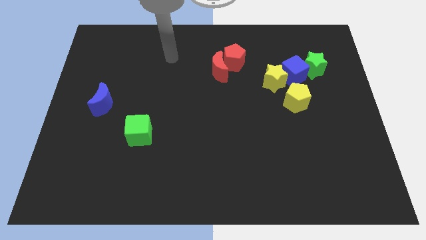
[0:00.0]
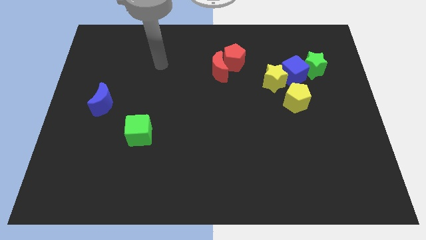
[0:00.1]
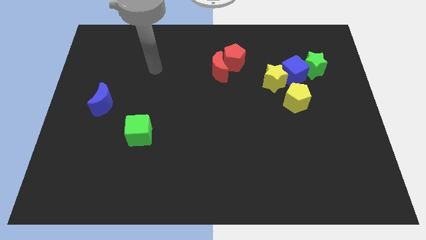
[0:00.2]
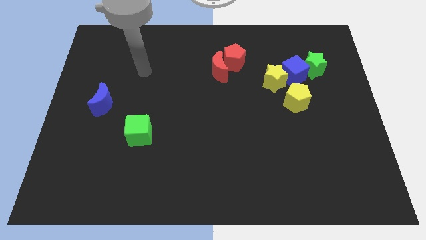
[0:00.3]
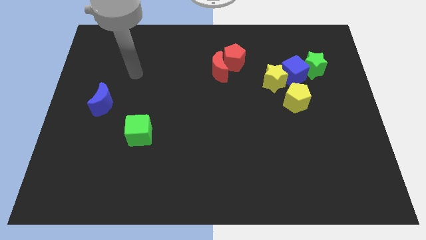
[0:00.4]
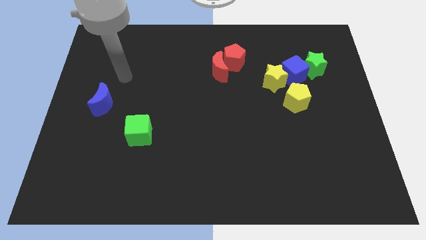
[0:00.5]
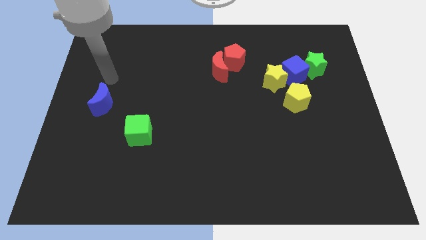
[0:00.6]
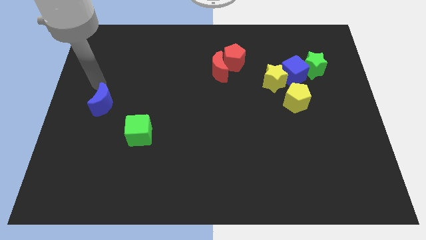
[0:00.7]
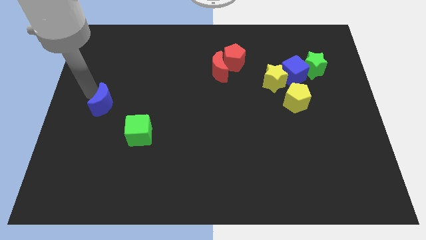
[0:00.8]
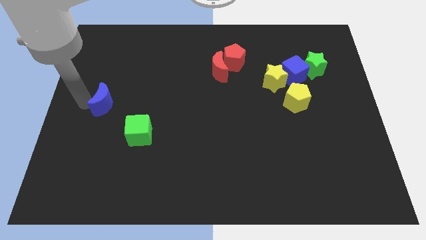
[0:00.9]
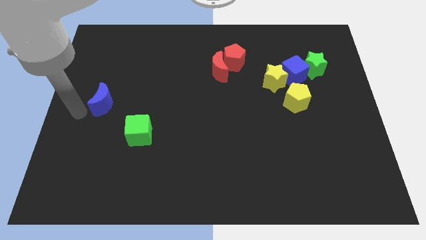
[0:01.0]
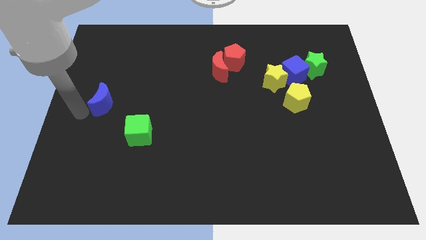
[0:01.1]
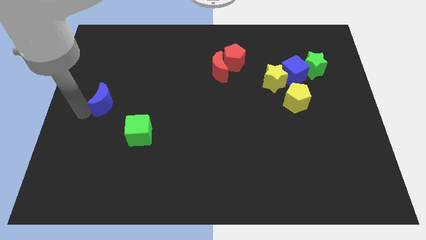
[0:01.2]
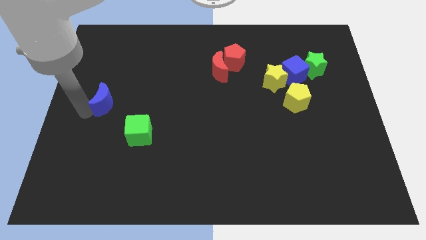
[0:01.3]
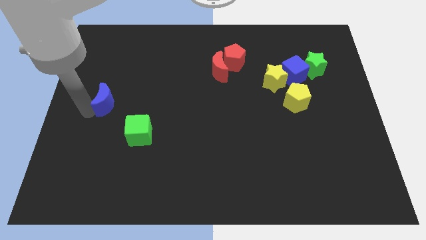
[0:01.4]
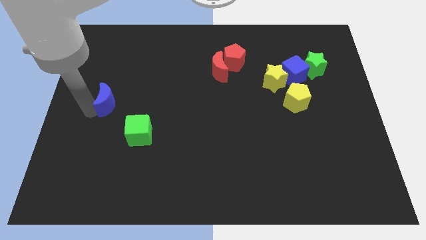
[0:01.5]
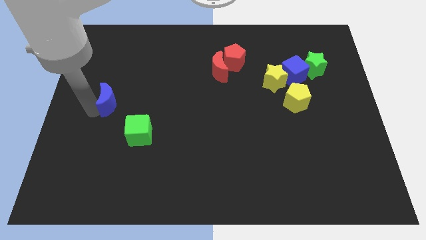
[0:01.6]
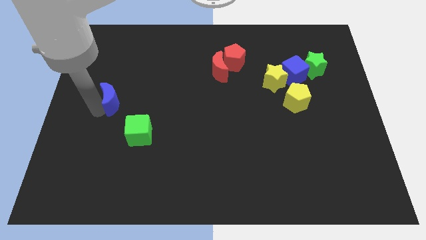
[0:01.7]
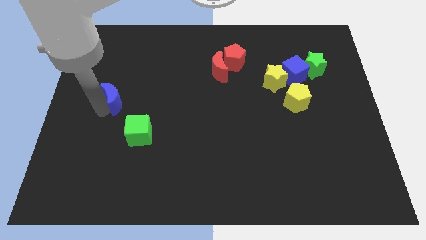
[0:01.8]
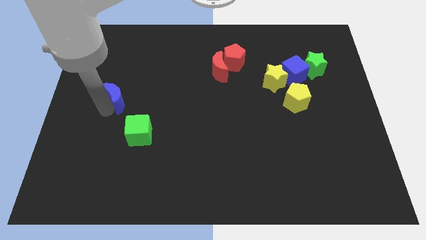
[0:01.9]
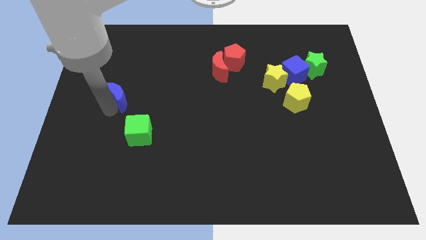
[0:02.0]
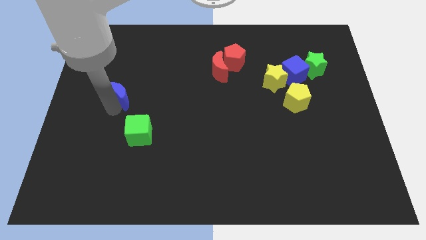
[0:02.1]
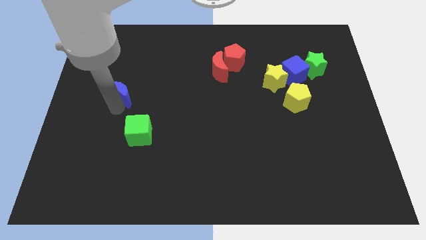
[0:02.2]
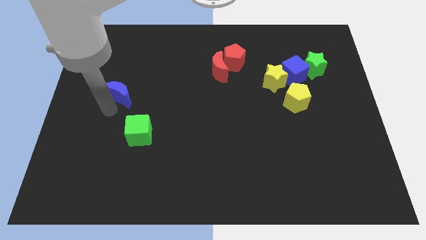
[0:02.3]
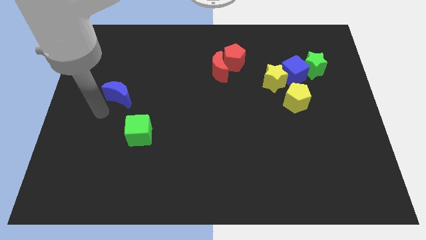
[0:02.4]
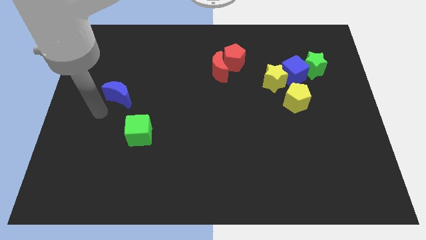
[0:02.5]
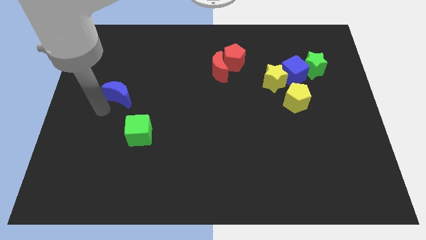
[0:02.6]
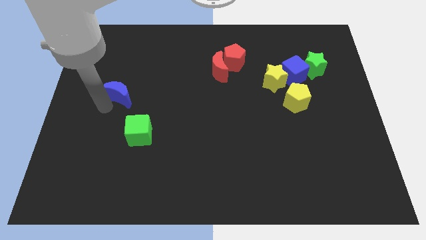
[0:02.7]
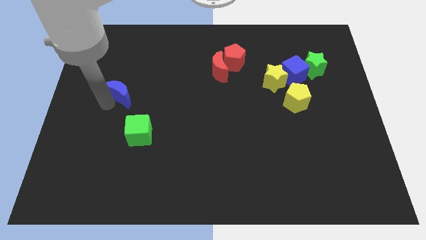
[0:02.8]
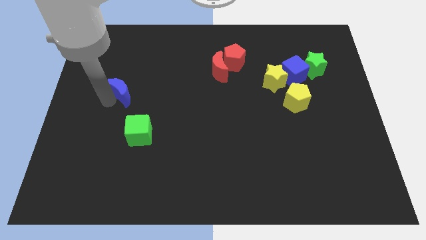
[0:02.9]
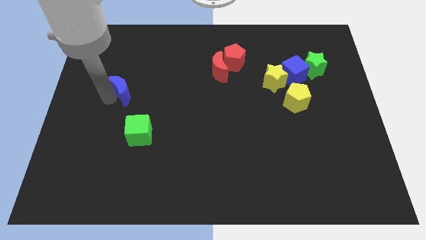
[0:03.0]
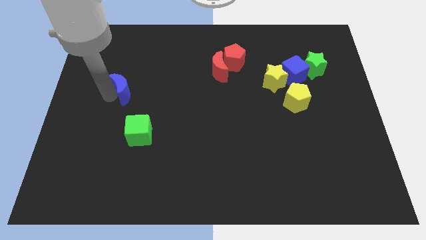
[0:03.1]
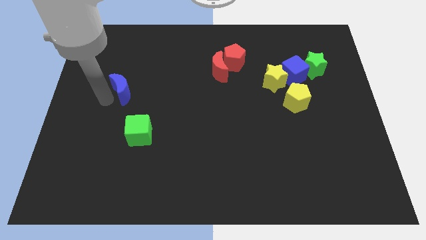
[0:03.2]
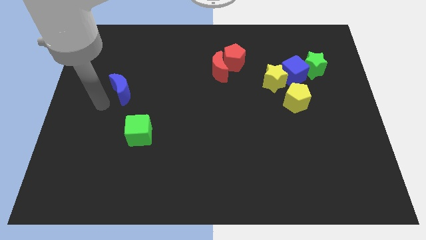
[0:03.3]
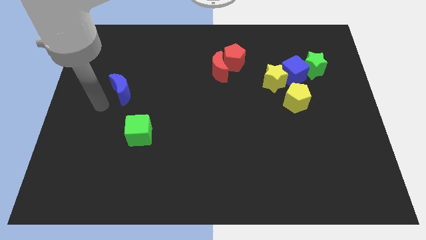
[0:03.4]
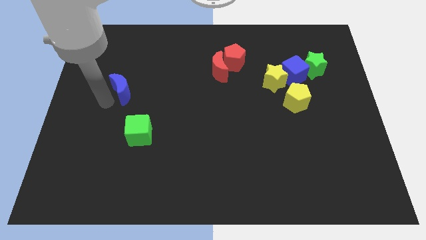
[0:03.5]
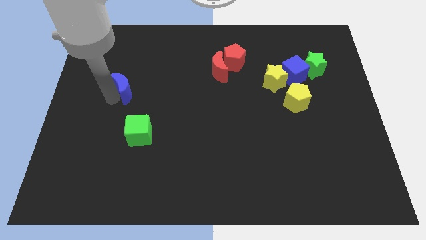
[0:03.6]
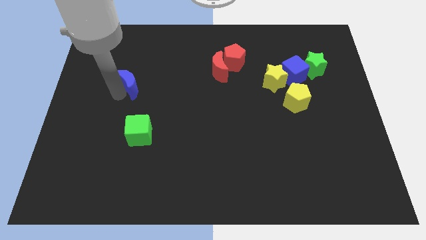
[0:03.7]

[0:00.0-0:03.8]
slide the blue moon up and then to the right a bit

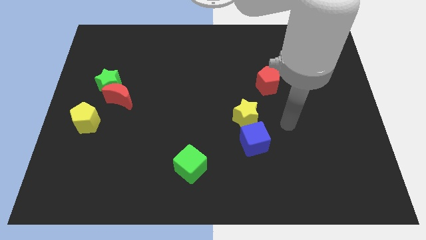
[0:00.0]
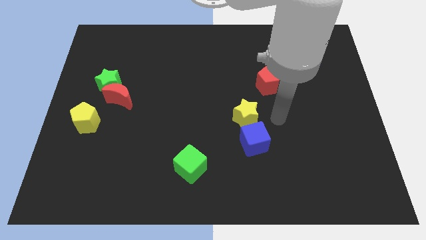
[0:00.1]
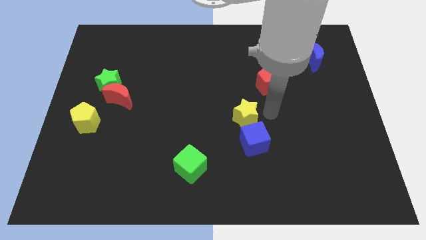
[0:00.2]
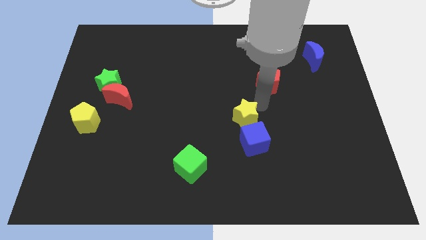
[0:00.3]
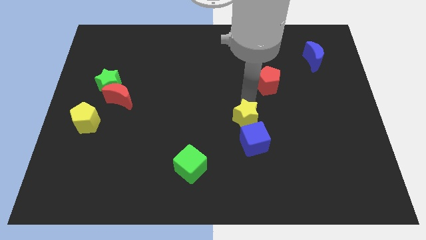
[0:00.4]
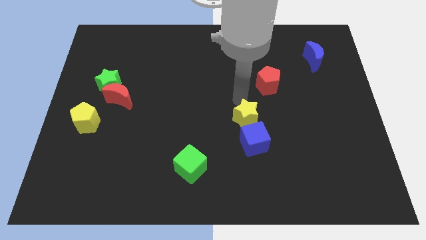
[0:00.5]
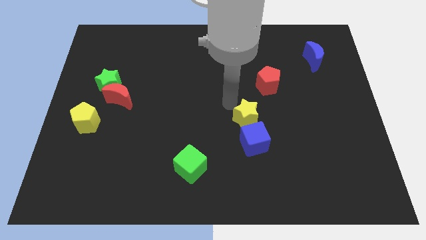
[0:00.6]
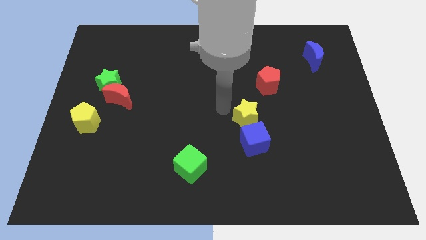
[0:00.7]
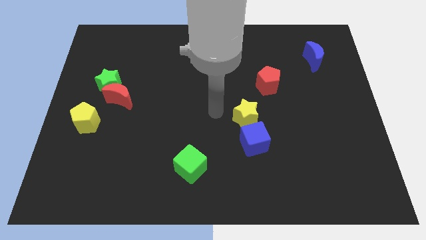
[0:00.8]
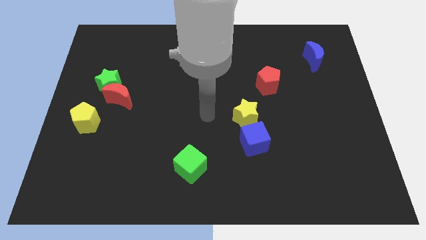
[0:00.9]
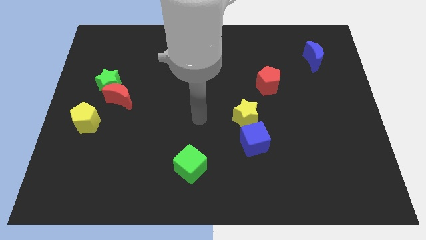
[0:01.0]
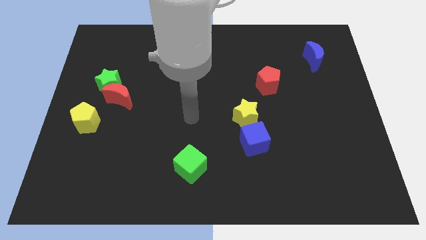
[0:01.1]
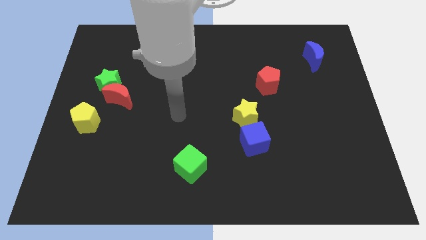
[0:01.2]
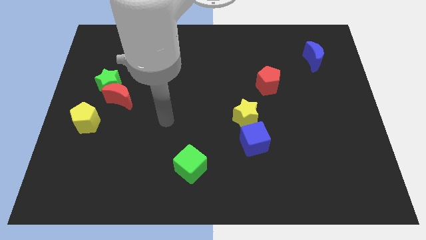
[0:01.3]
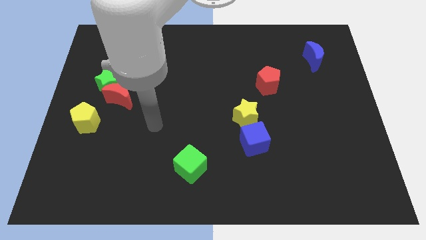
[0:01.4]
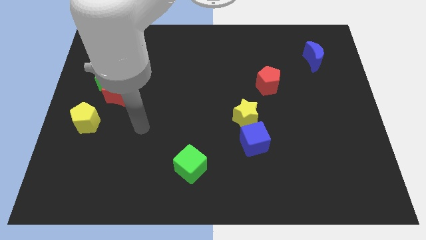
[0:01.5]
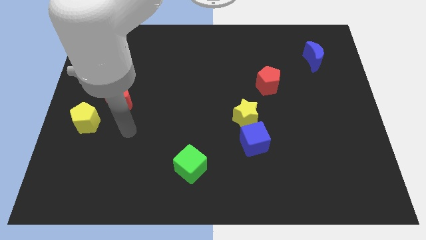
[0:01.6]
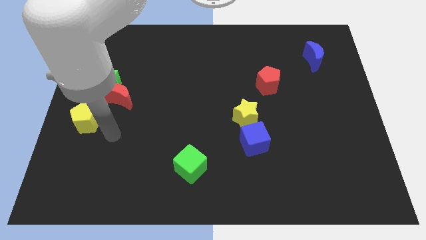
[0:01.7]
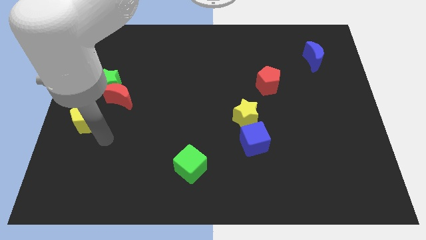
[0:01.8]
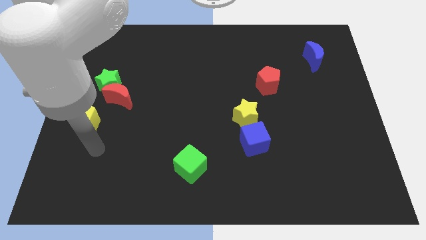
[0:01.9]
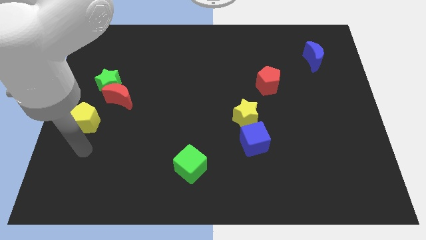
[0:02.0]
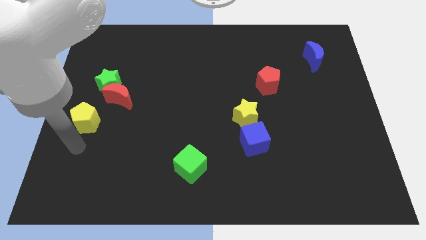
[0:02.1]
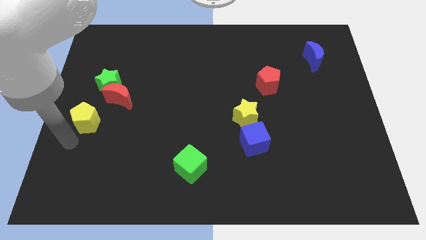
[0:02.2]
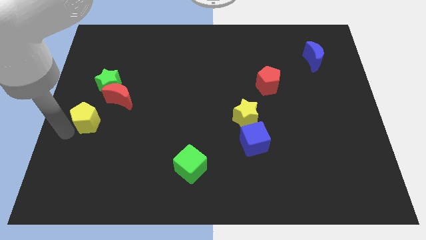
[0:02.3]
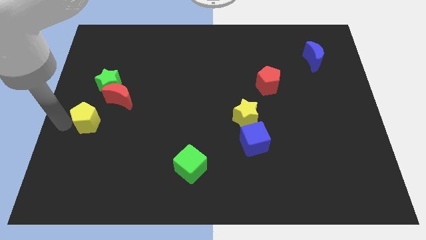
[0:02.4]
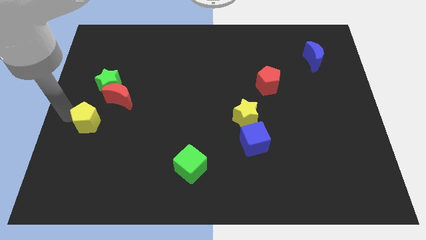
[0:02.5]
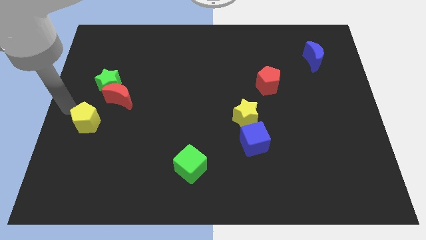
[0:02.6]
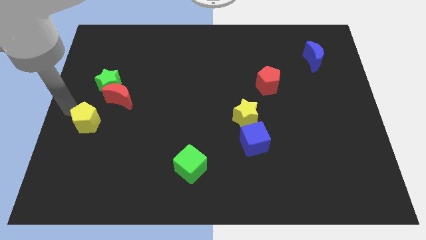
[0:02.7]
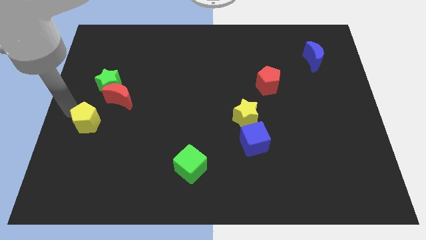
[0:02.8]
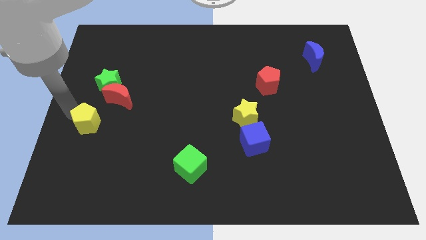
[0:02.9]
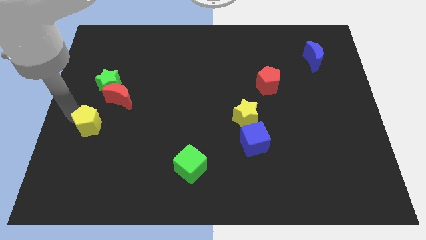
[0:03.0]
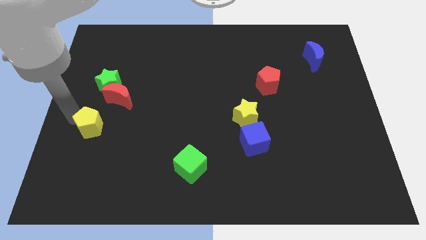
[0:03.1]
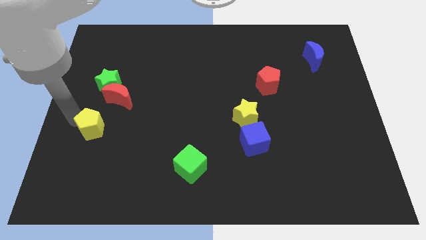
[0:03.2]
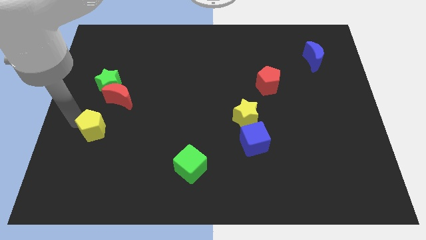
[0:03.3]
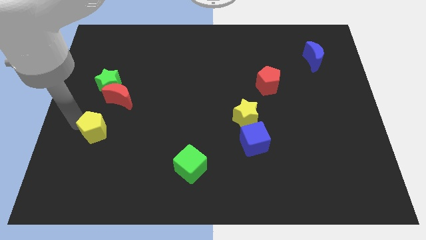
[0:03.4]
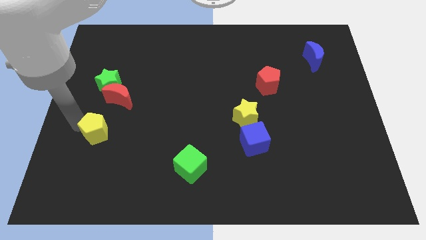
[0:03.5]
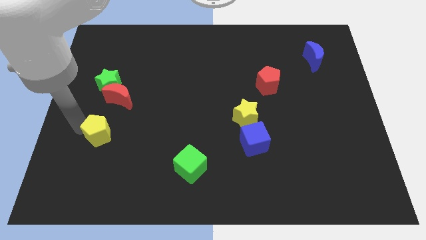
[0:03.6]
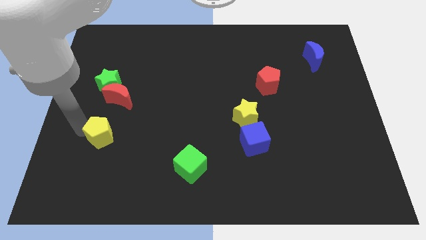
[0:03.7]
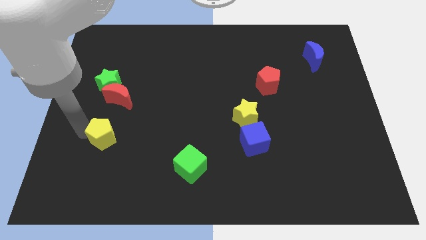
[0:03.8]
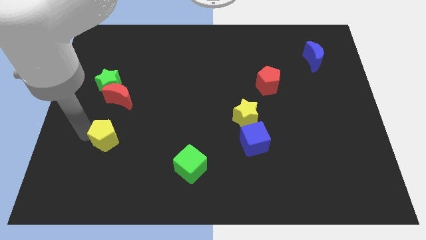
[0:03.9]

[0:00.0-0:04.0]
slightly push the yellow pentagon downwards and then to the right

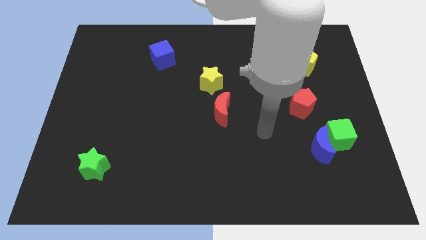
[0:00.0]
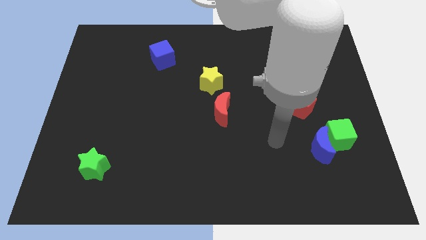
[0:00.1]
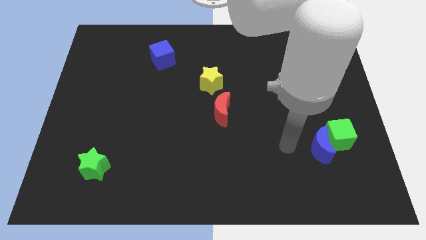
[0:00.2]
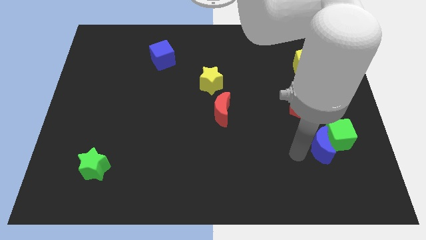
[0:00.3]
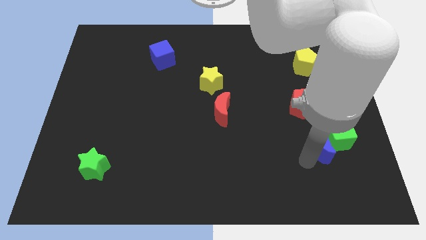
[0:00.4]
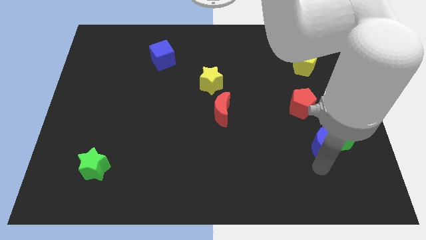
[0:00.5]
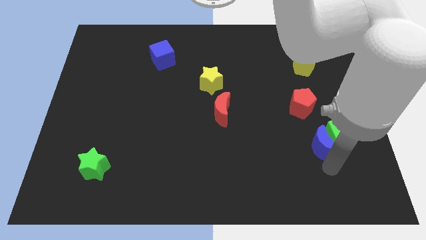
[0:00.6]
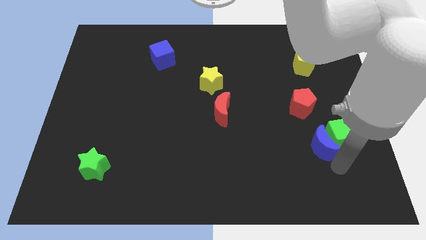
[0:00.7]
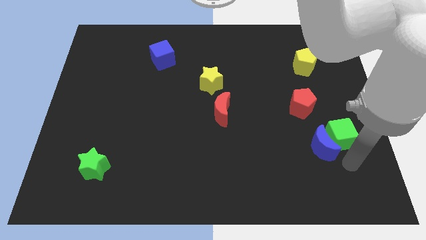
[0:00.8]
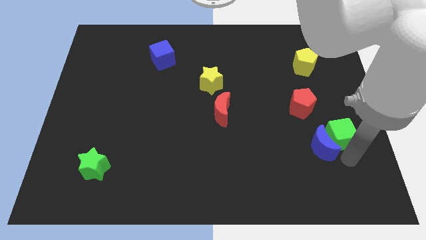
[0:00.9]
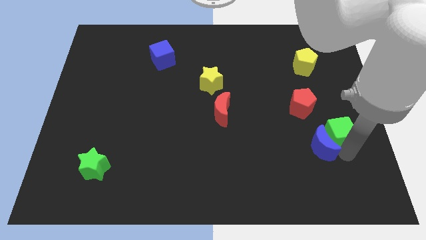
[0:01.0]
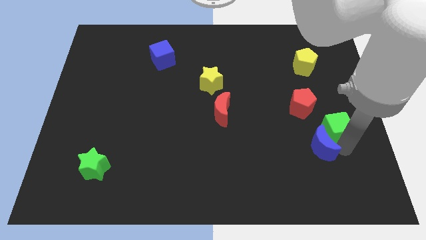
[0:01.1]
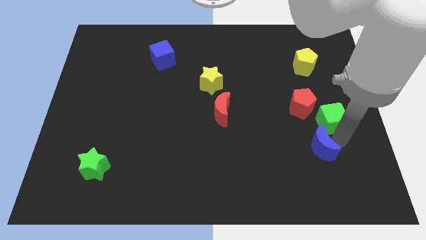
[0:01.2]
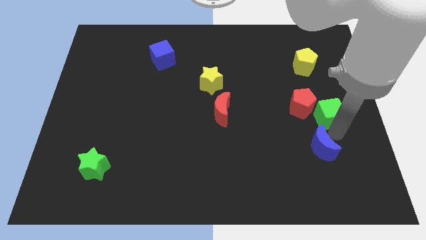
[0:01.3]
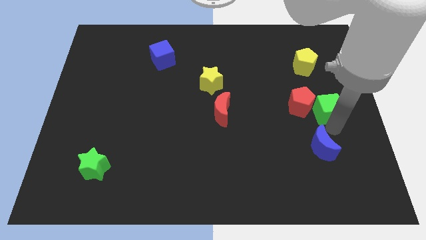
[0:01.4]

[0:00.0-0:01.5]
slide the green cube a little upwards
